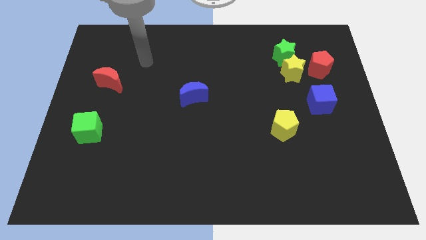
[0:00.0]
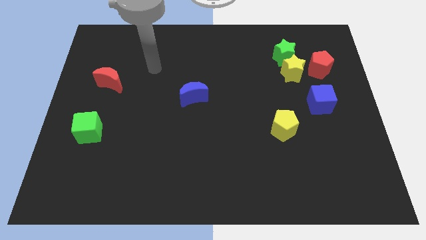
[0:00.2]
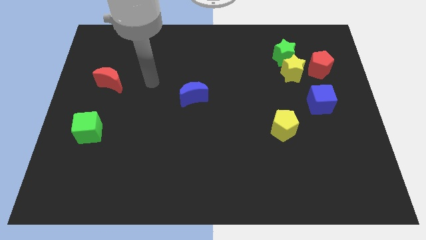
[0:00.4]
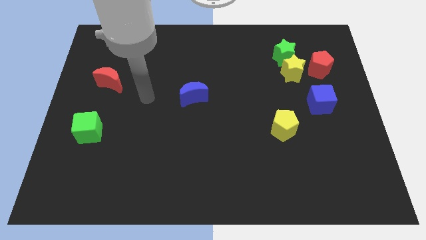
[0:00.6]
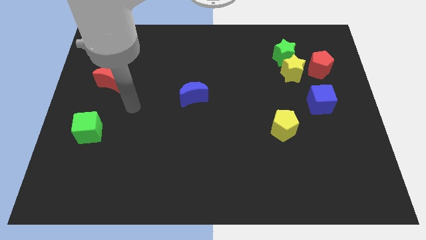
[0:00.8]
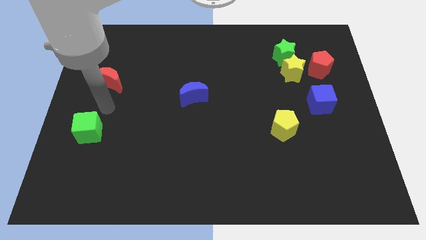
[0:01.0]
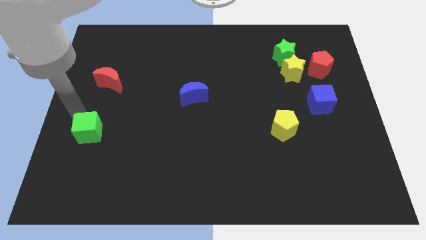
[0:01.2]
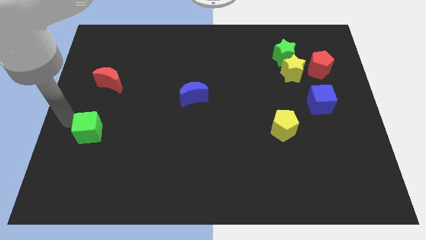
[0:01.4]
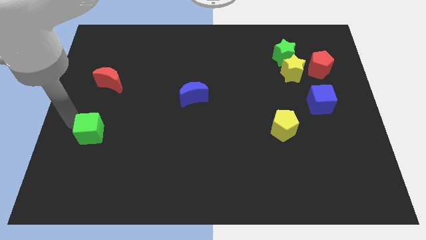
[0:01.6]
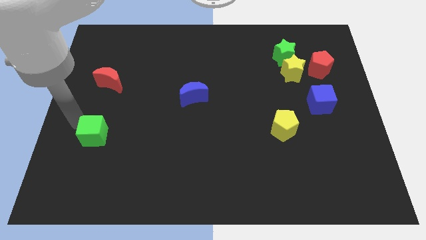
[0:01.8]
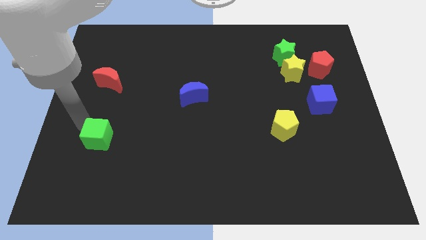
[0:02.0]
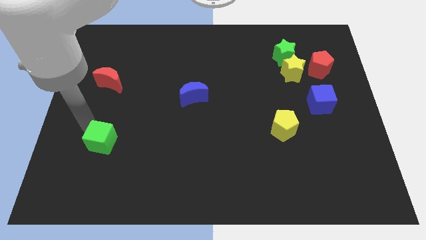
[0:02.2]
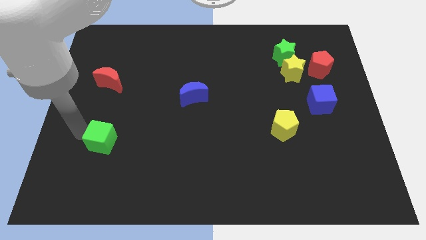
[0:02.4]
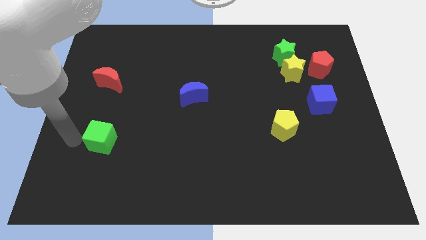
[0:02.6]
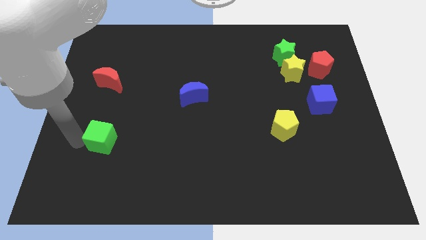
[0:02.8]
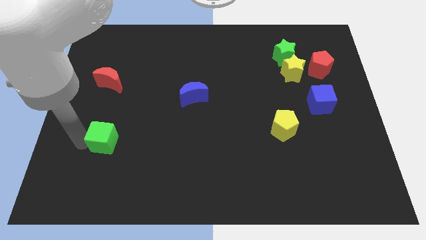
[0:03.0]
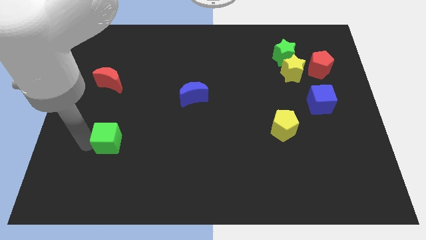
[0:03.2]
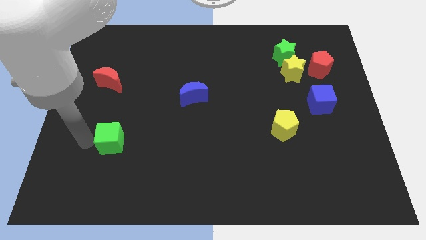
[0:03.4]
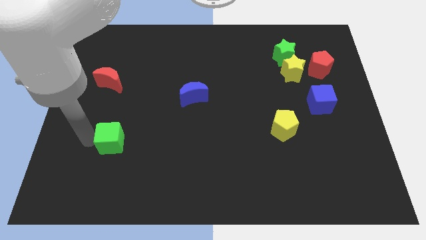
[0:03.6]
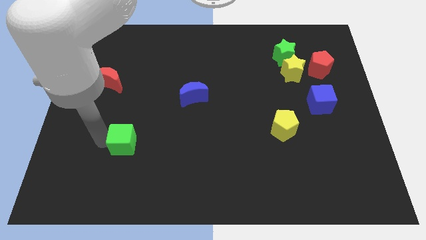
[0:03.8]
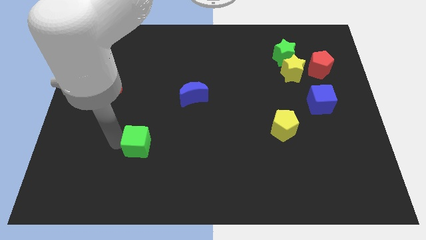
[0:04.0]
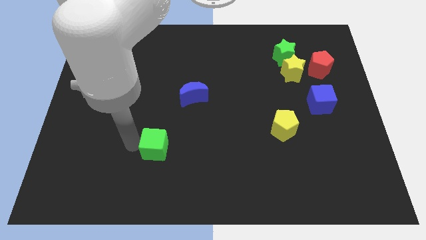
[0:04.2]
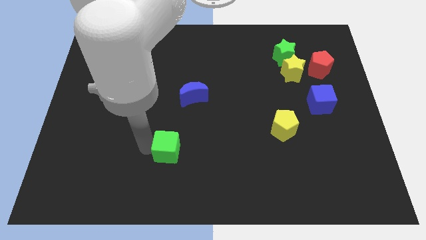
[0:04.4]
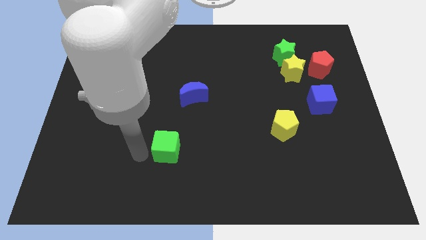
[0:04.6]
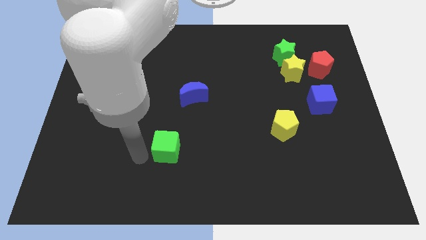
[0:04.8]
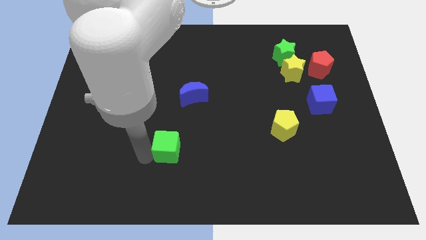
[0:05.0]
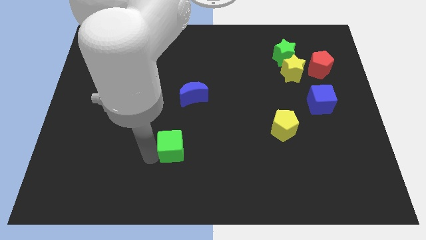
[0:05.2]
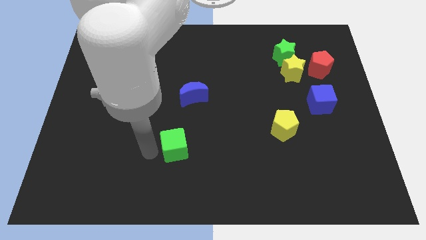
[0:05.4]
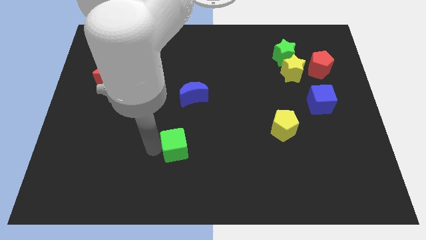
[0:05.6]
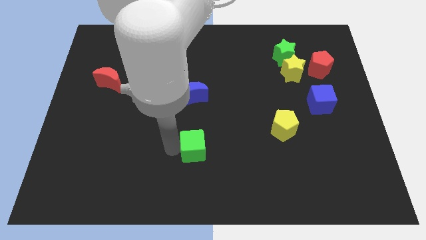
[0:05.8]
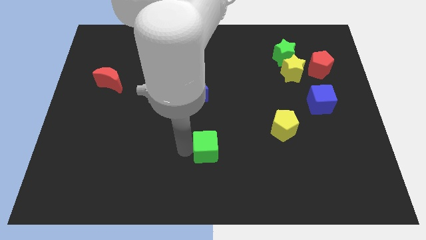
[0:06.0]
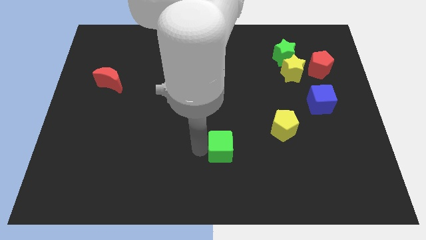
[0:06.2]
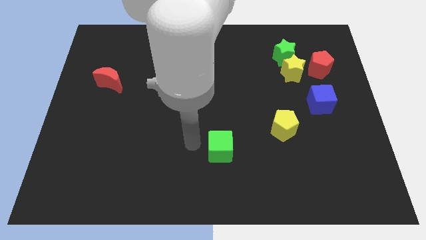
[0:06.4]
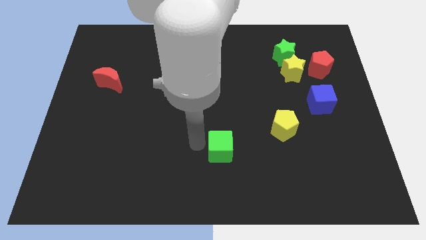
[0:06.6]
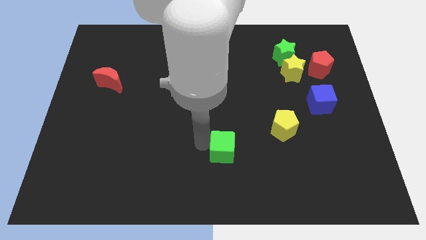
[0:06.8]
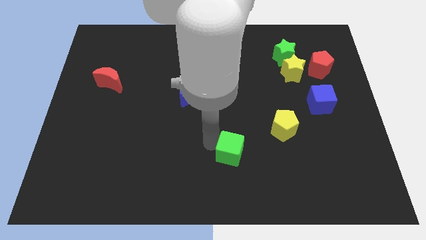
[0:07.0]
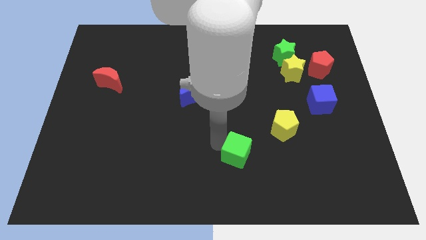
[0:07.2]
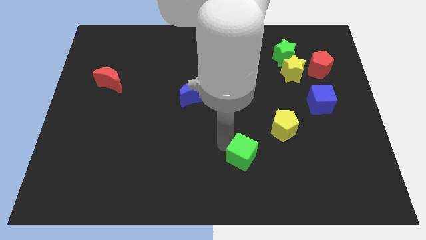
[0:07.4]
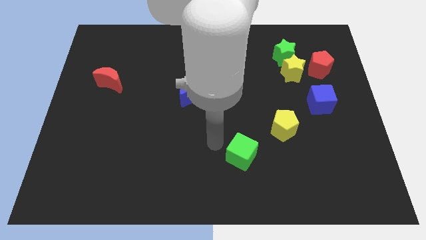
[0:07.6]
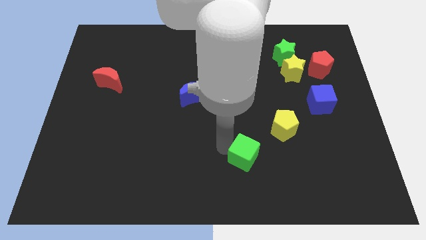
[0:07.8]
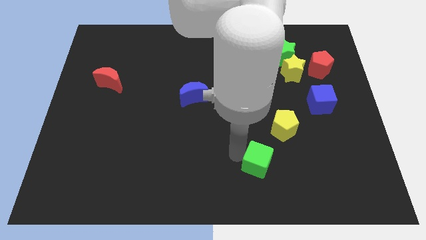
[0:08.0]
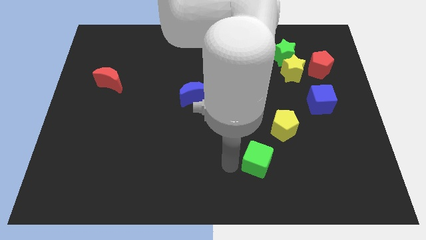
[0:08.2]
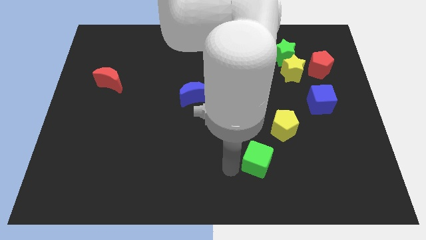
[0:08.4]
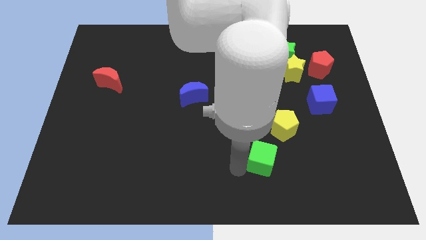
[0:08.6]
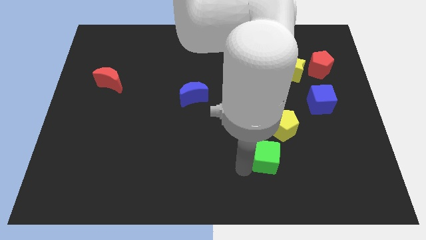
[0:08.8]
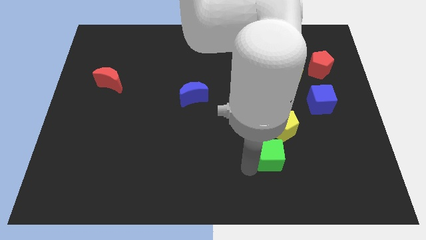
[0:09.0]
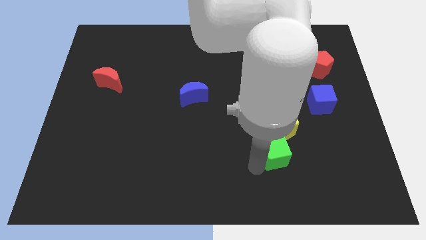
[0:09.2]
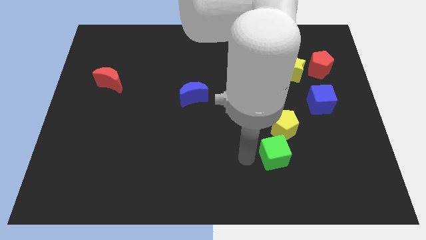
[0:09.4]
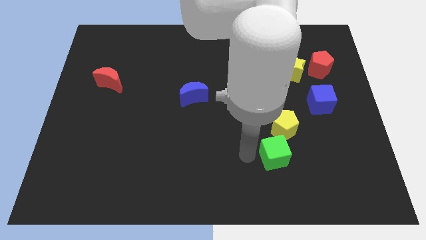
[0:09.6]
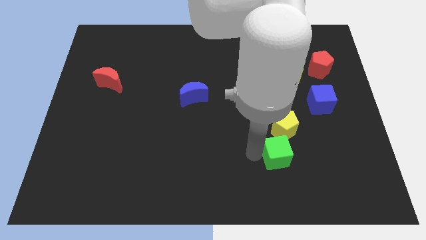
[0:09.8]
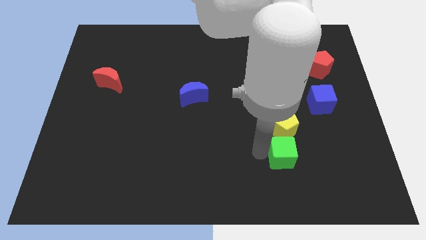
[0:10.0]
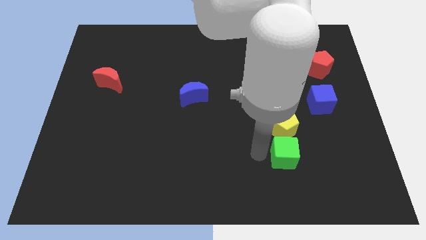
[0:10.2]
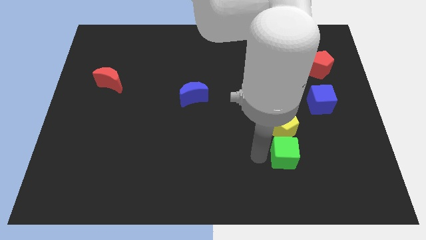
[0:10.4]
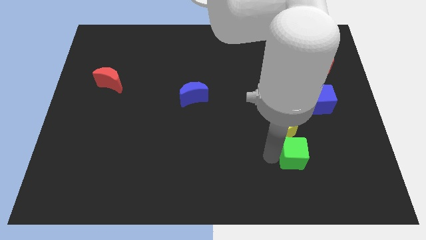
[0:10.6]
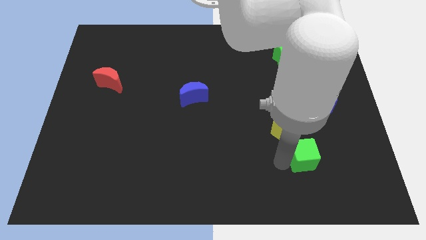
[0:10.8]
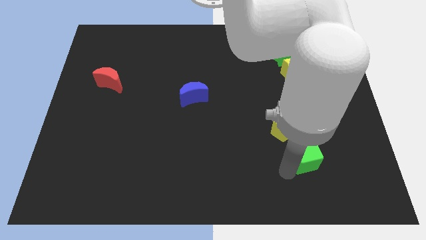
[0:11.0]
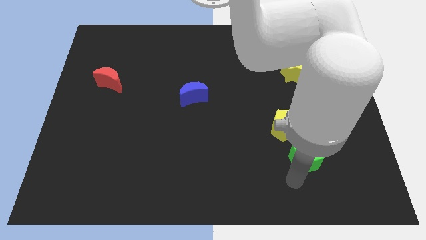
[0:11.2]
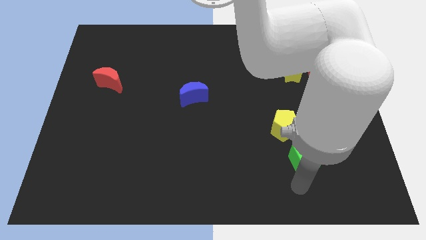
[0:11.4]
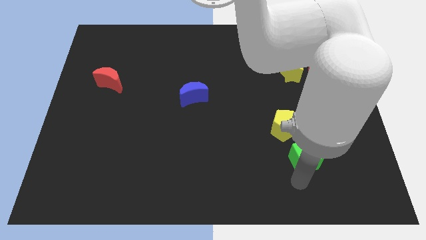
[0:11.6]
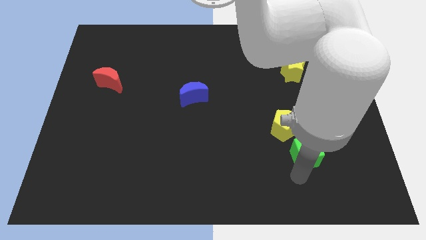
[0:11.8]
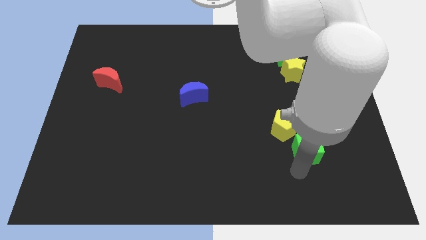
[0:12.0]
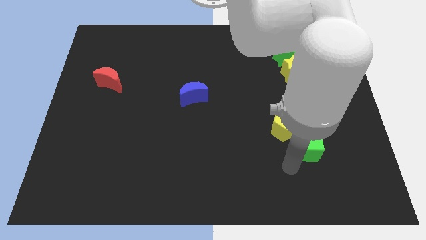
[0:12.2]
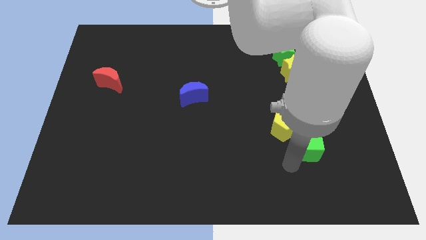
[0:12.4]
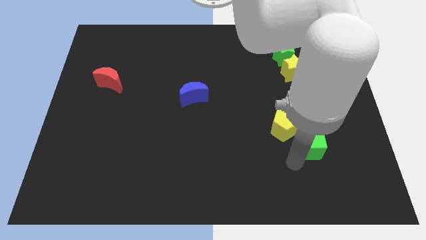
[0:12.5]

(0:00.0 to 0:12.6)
push the green cube just right of the yellow pentagon

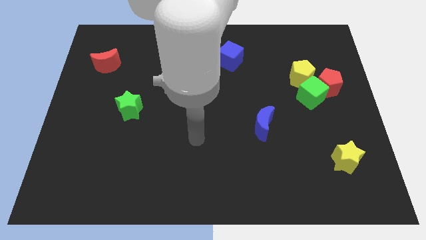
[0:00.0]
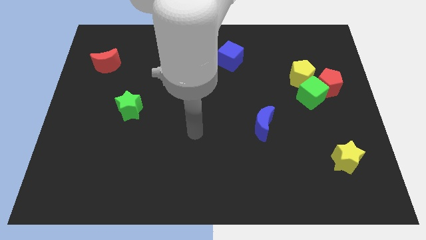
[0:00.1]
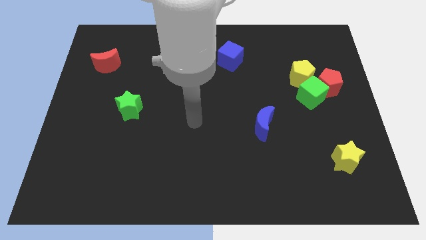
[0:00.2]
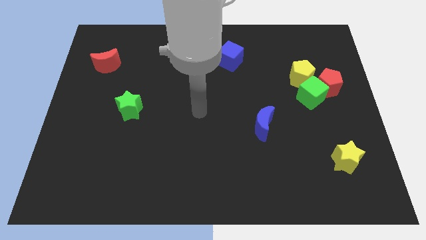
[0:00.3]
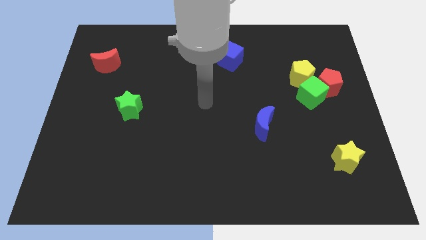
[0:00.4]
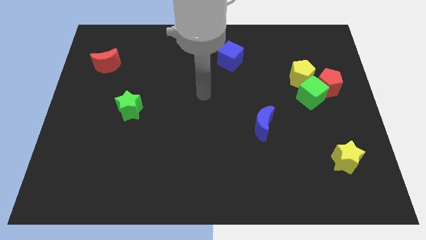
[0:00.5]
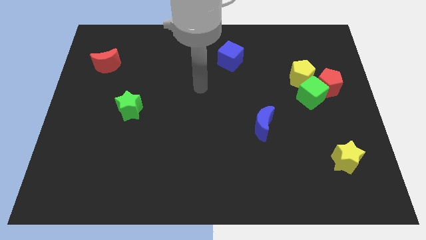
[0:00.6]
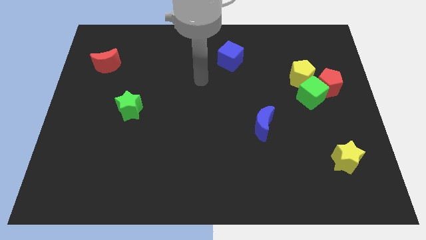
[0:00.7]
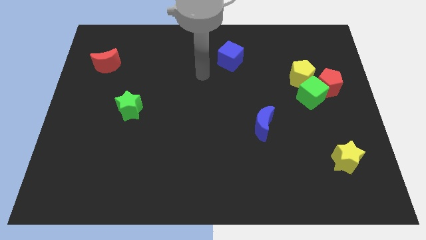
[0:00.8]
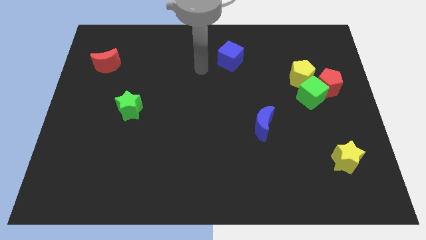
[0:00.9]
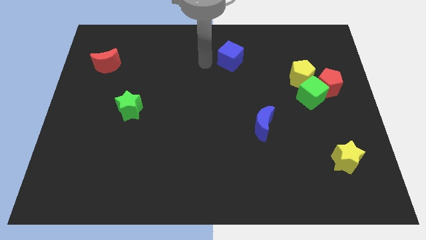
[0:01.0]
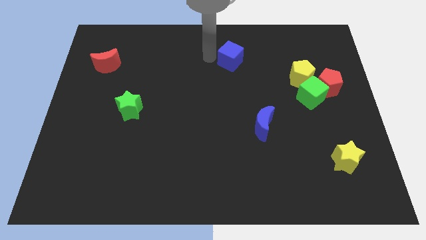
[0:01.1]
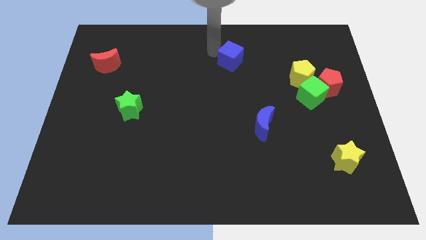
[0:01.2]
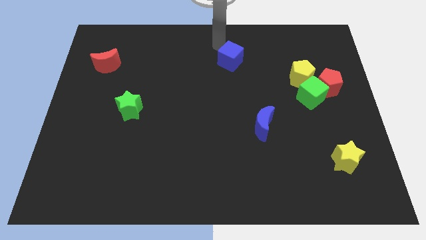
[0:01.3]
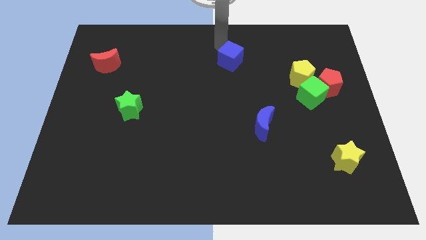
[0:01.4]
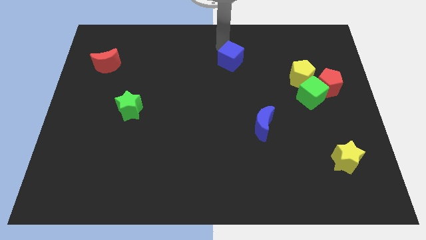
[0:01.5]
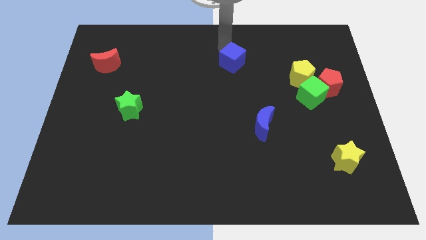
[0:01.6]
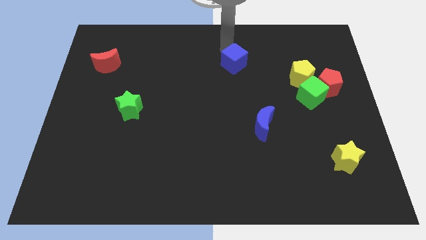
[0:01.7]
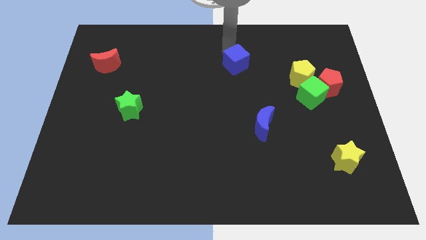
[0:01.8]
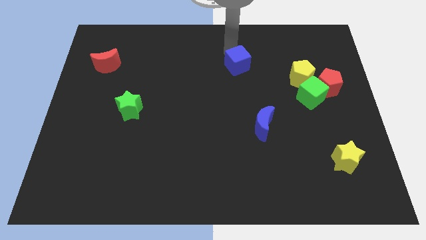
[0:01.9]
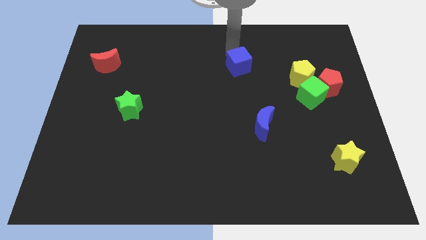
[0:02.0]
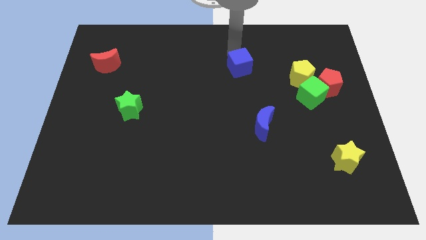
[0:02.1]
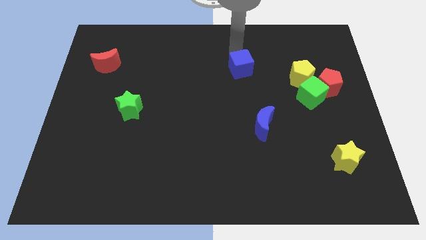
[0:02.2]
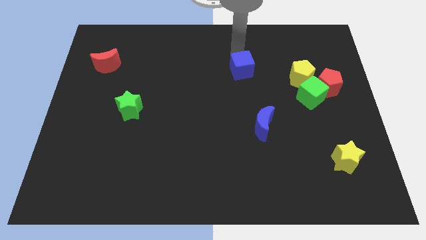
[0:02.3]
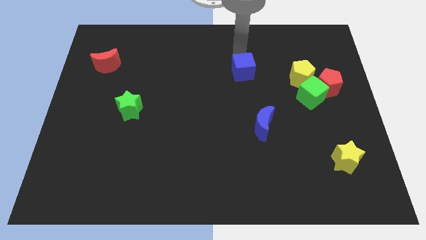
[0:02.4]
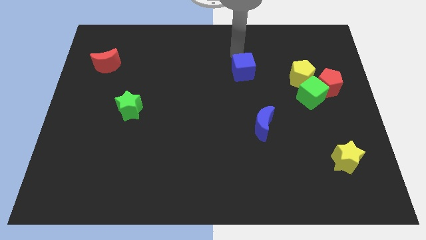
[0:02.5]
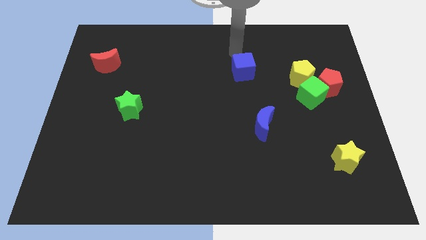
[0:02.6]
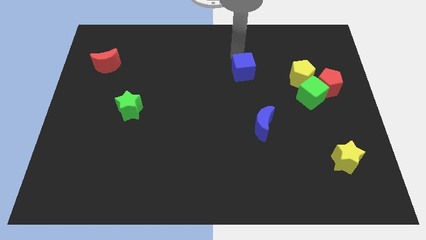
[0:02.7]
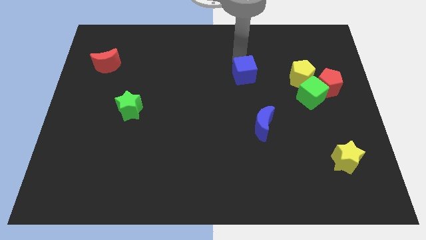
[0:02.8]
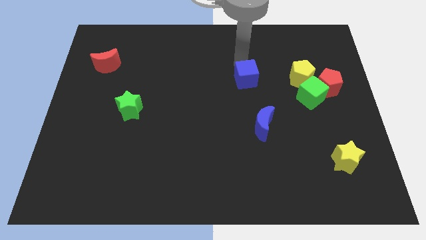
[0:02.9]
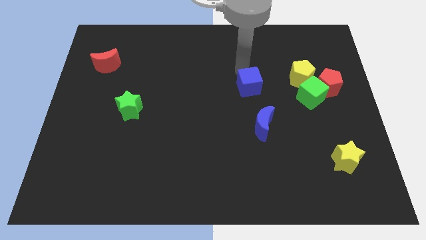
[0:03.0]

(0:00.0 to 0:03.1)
push the blue cube to the left of the green cube
